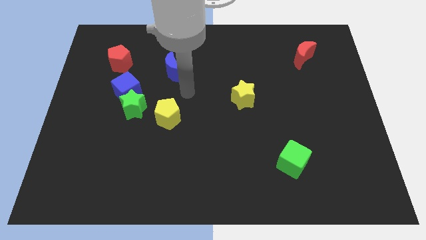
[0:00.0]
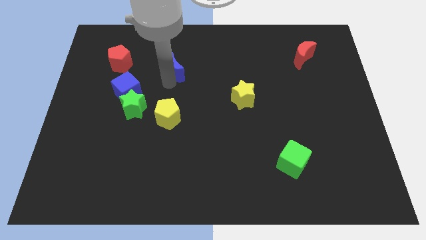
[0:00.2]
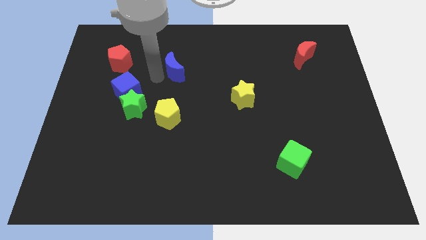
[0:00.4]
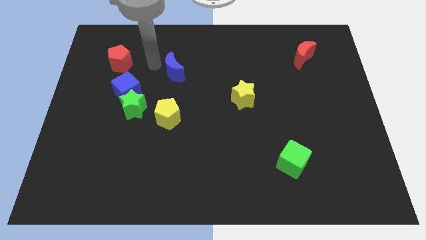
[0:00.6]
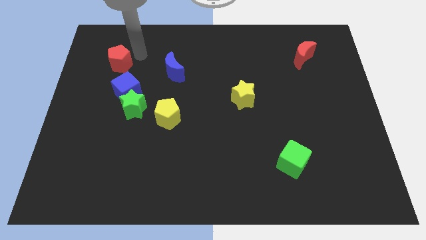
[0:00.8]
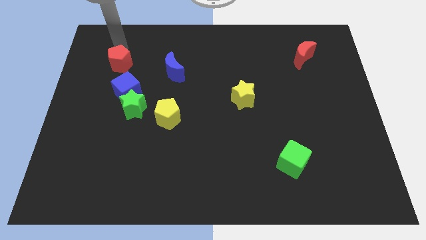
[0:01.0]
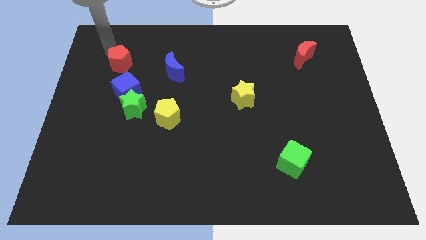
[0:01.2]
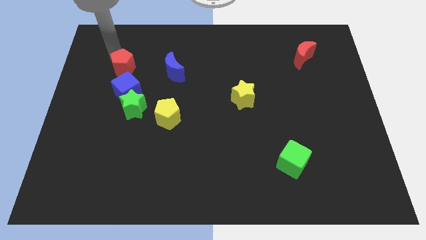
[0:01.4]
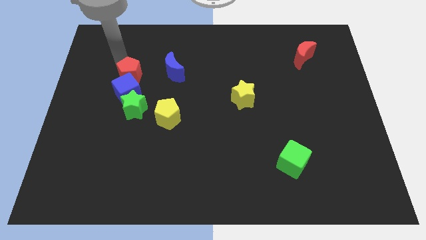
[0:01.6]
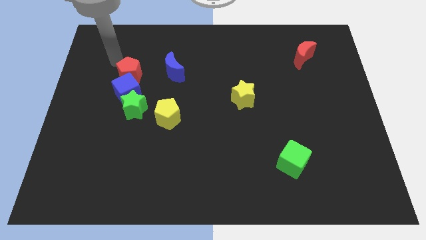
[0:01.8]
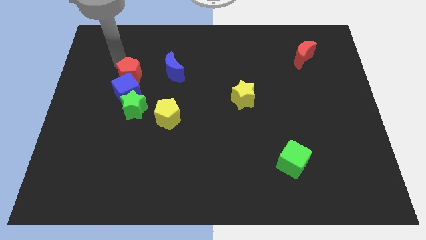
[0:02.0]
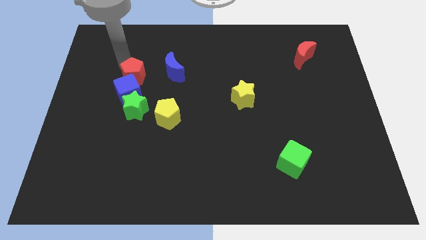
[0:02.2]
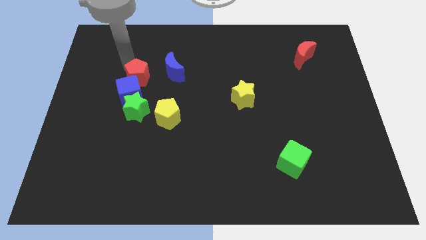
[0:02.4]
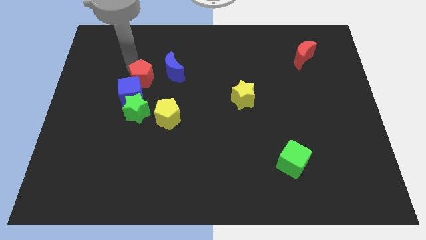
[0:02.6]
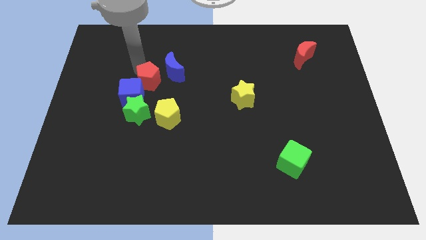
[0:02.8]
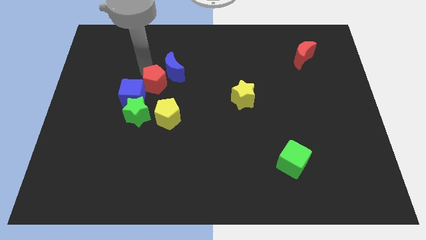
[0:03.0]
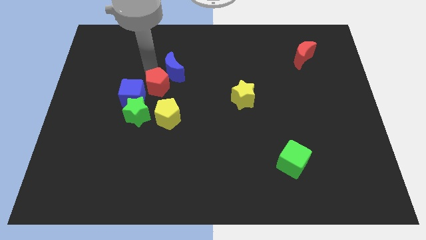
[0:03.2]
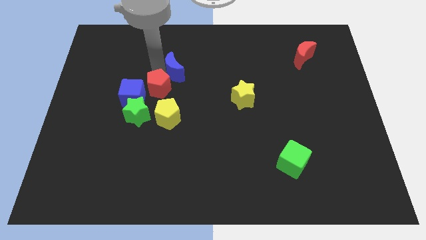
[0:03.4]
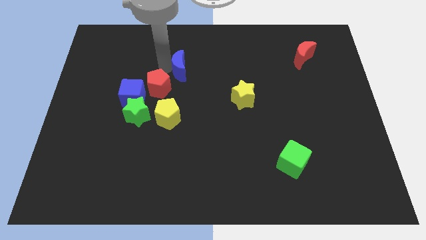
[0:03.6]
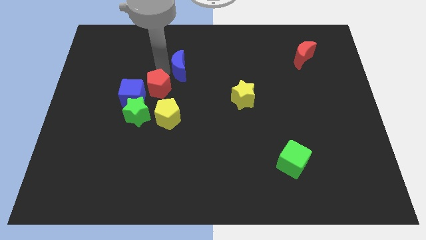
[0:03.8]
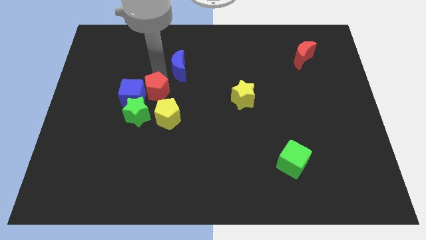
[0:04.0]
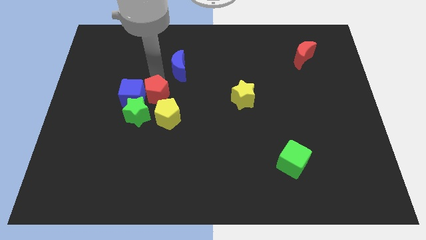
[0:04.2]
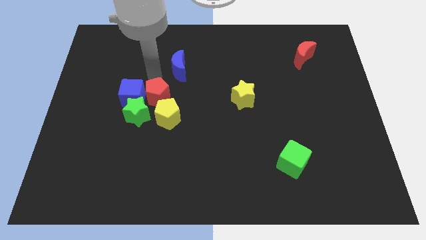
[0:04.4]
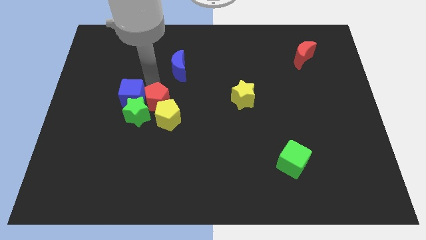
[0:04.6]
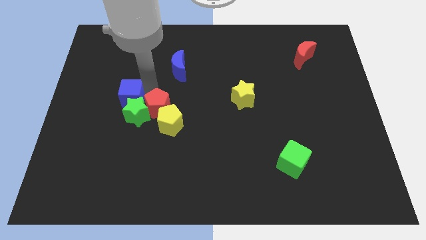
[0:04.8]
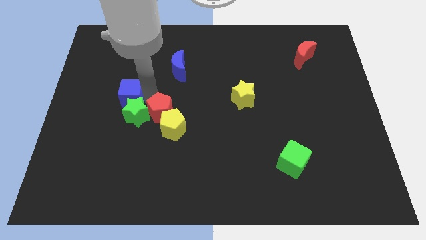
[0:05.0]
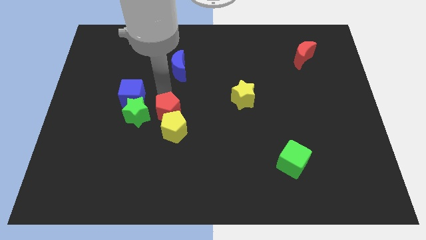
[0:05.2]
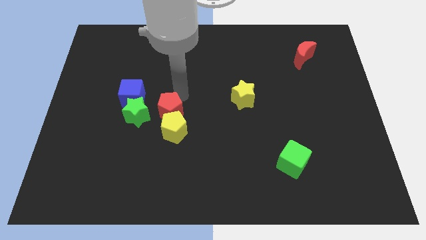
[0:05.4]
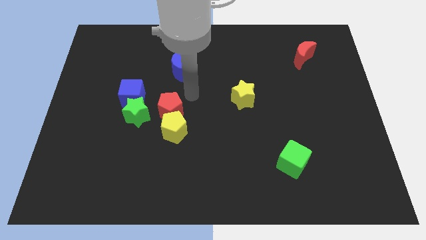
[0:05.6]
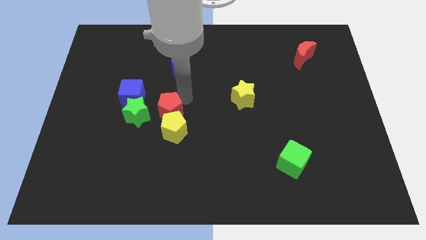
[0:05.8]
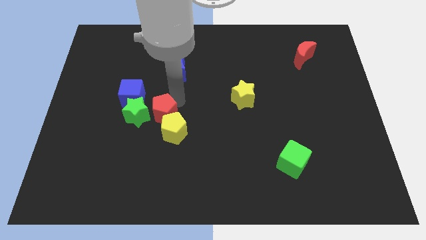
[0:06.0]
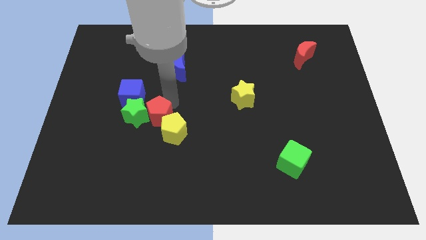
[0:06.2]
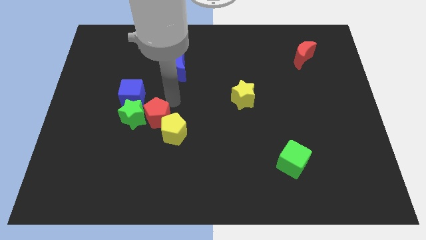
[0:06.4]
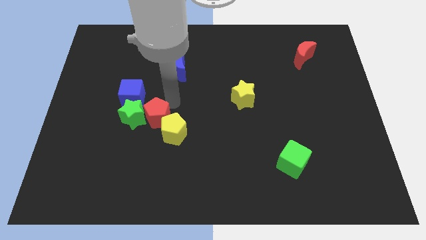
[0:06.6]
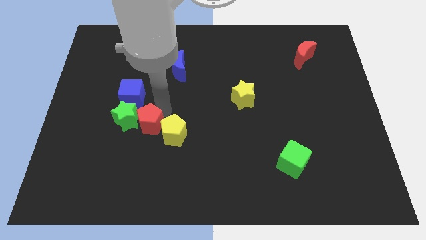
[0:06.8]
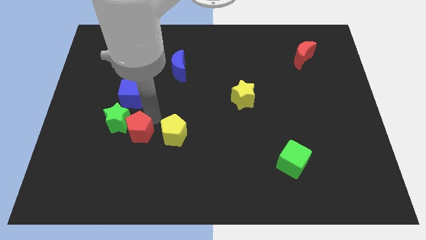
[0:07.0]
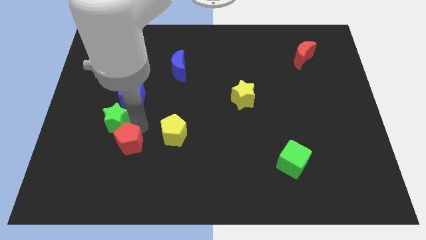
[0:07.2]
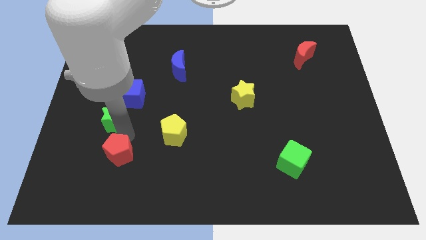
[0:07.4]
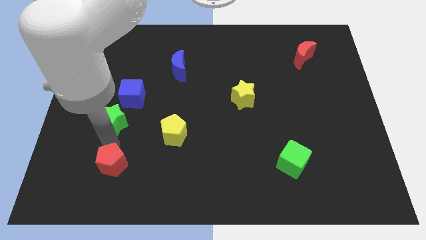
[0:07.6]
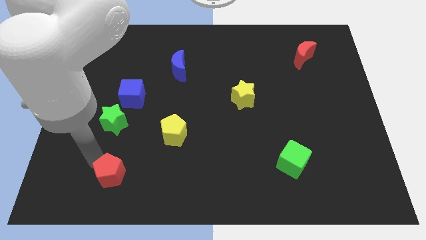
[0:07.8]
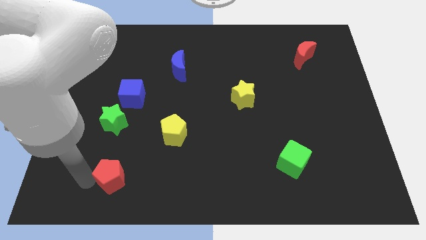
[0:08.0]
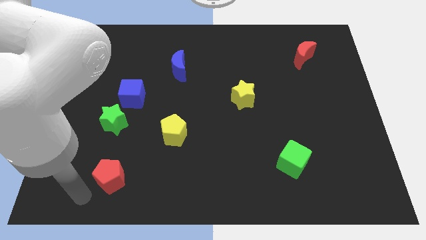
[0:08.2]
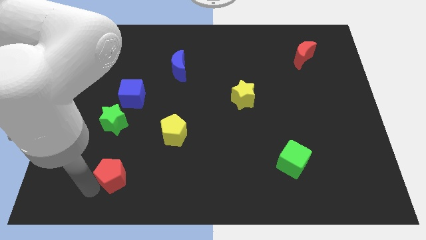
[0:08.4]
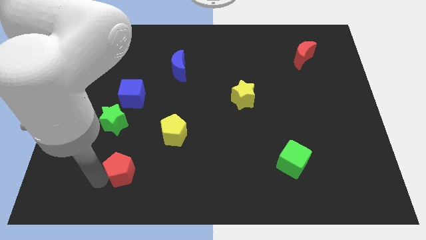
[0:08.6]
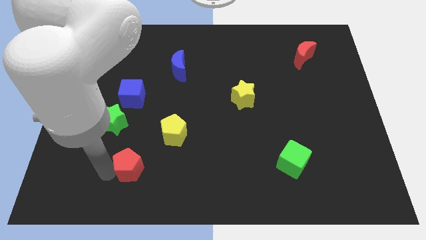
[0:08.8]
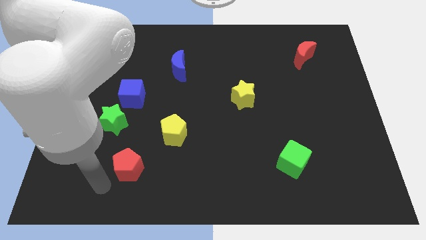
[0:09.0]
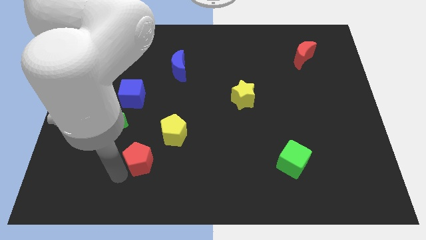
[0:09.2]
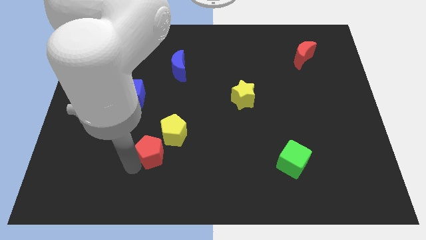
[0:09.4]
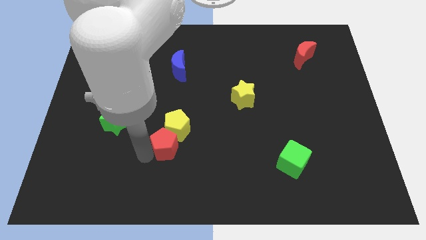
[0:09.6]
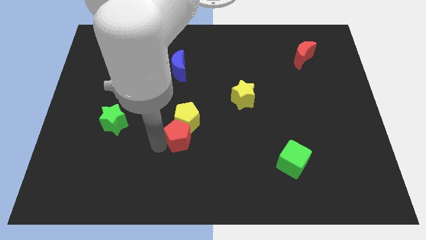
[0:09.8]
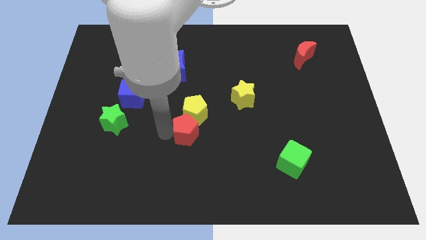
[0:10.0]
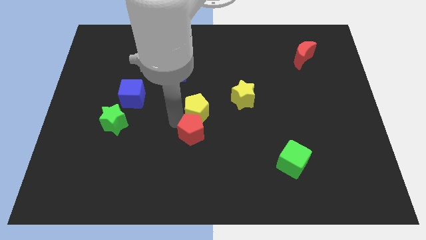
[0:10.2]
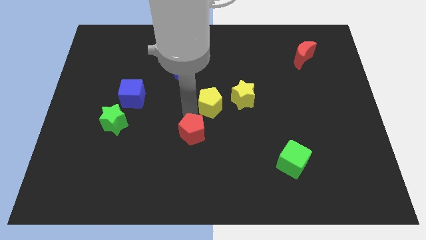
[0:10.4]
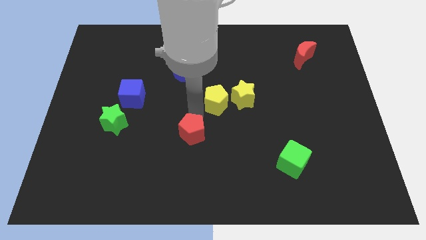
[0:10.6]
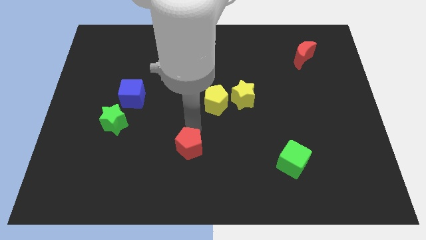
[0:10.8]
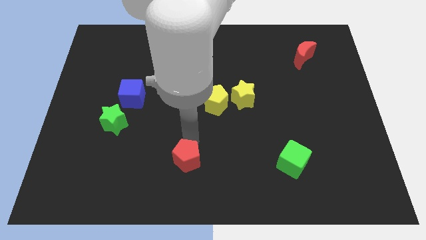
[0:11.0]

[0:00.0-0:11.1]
push the red pentagon to the bottom side

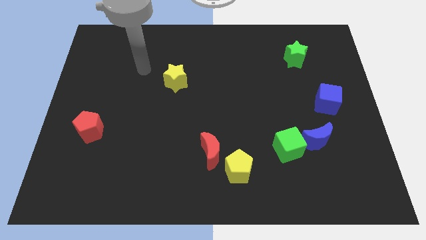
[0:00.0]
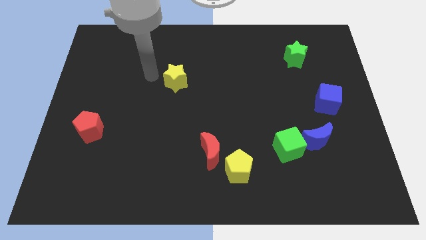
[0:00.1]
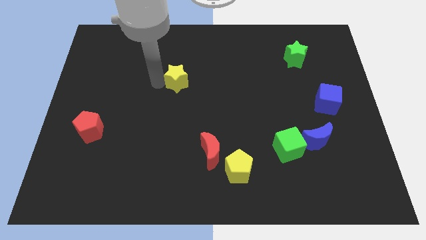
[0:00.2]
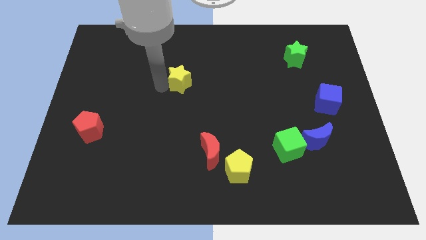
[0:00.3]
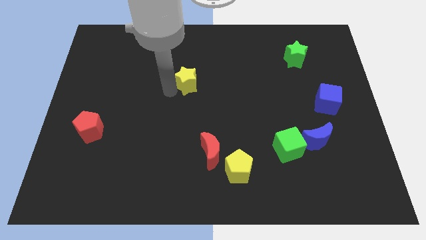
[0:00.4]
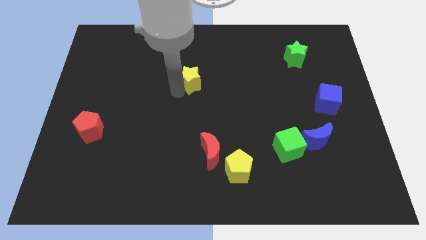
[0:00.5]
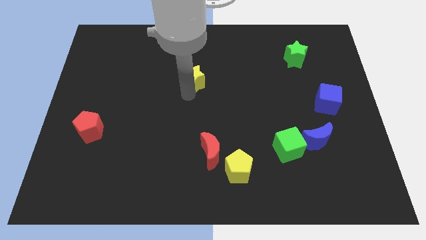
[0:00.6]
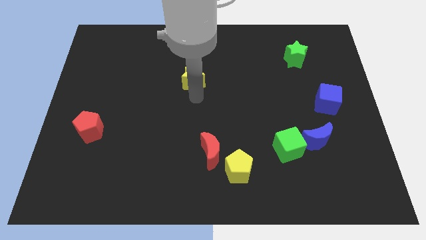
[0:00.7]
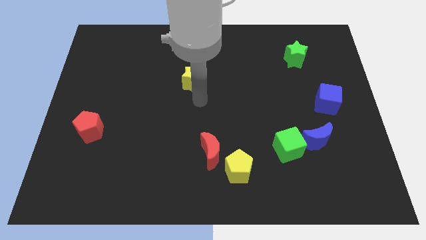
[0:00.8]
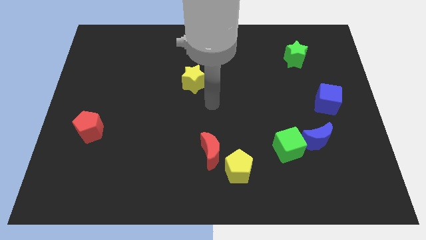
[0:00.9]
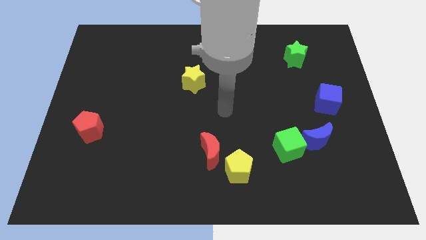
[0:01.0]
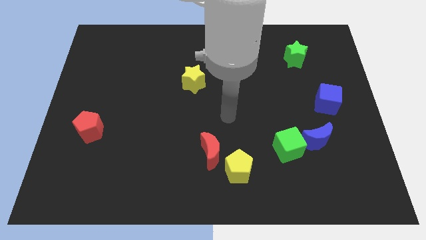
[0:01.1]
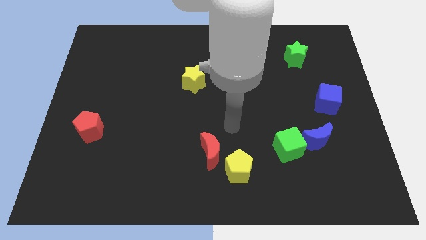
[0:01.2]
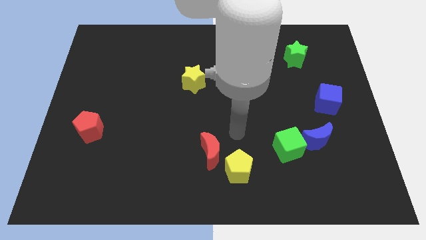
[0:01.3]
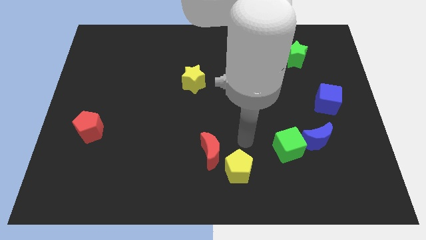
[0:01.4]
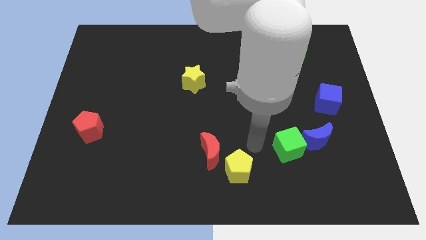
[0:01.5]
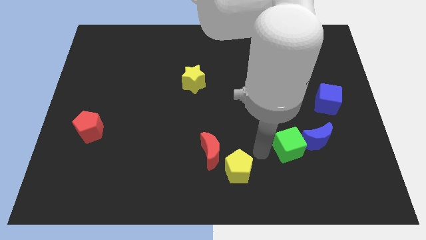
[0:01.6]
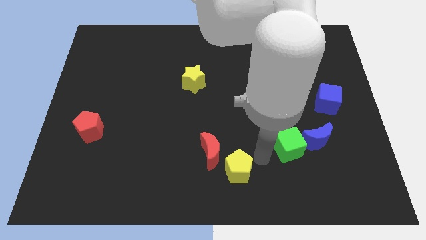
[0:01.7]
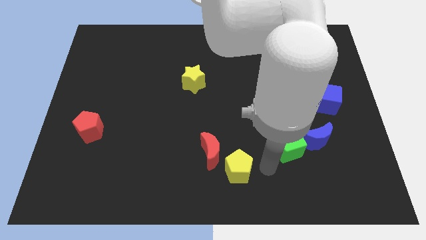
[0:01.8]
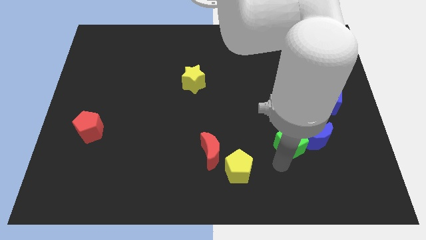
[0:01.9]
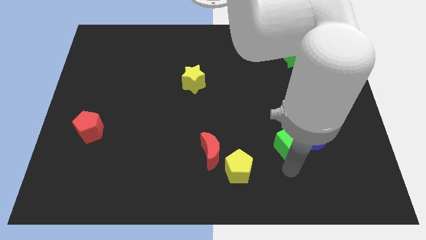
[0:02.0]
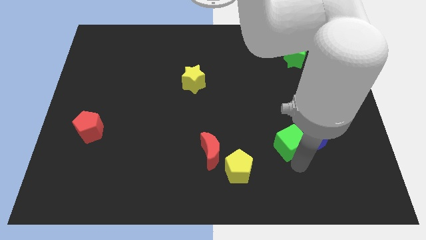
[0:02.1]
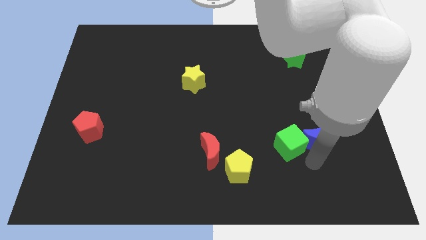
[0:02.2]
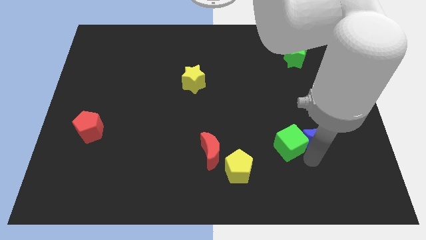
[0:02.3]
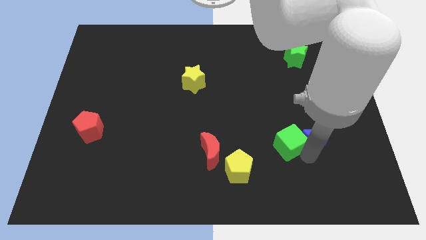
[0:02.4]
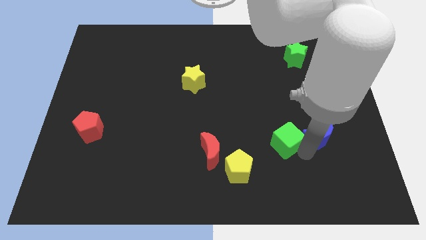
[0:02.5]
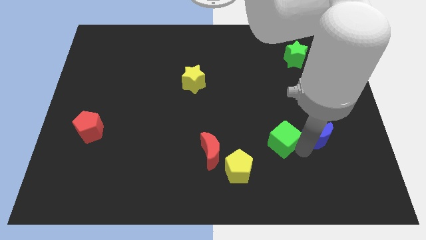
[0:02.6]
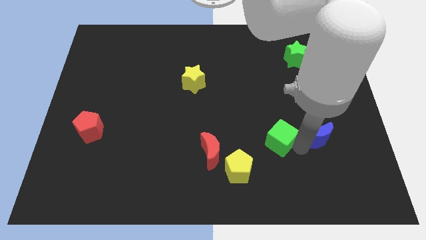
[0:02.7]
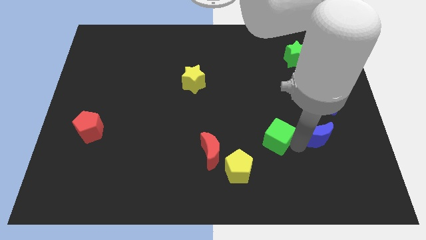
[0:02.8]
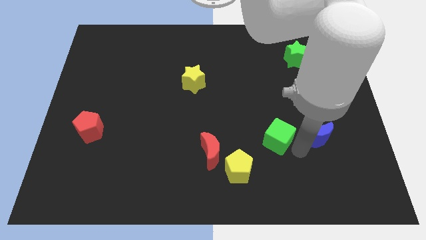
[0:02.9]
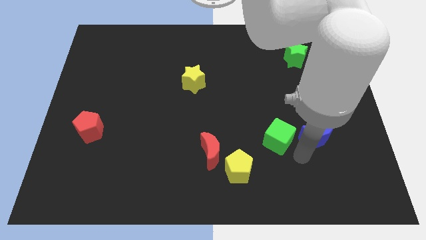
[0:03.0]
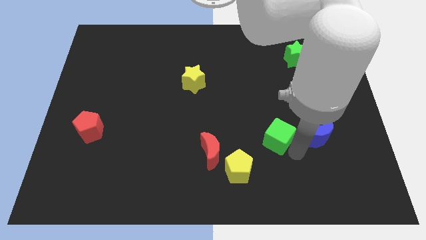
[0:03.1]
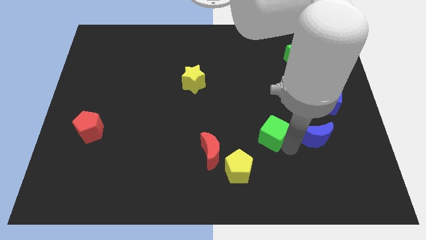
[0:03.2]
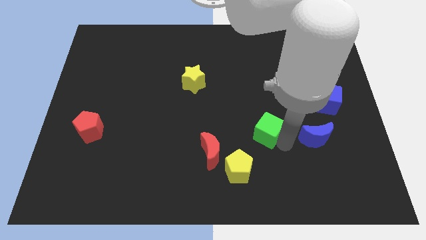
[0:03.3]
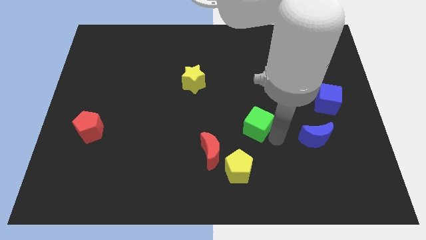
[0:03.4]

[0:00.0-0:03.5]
move the green cube to the middle of the board
